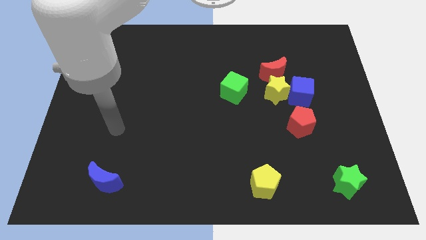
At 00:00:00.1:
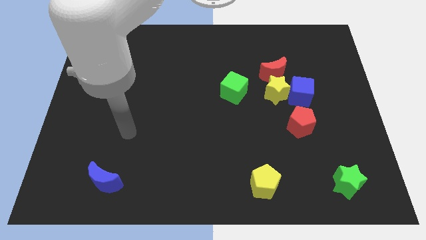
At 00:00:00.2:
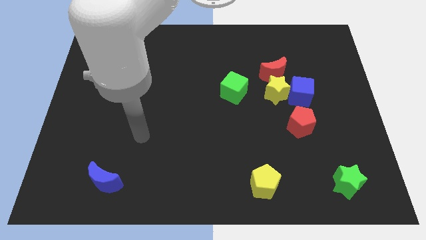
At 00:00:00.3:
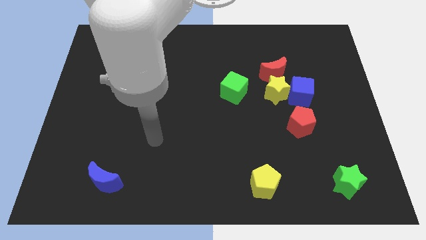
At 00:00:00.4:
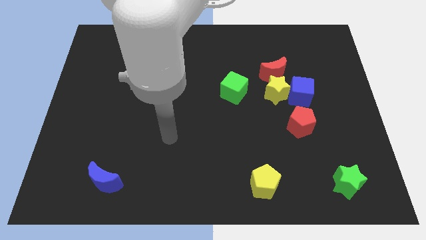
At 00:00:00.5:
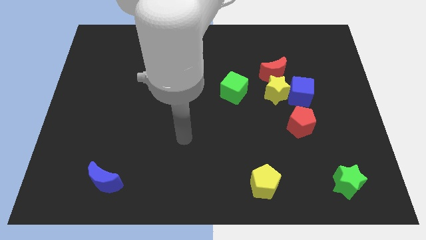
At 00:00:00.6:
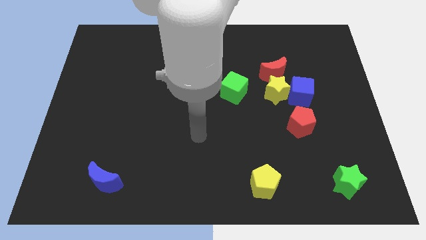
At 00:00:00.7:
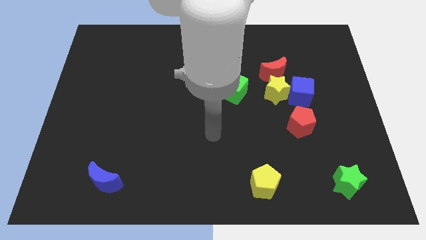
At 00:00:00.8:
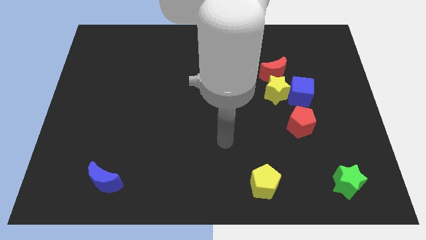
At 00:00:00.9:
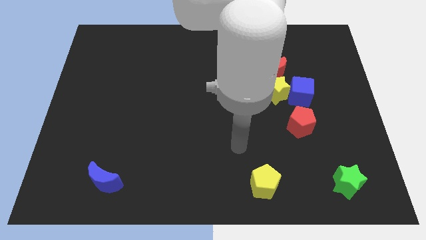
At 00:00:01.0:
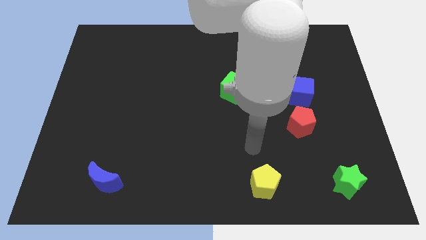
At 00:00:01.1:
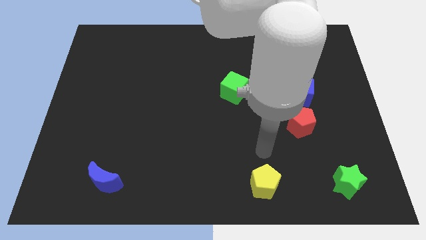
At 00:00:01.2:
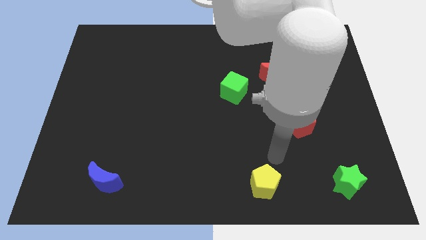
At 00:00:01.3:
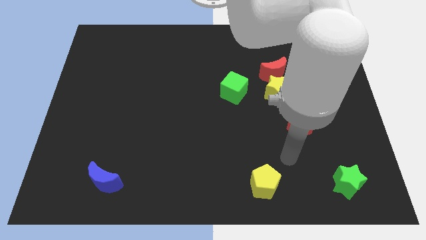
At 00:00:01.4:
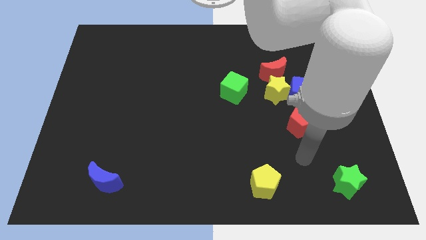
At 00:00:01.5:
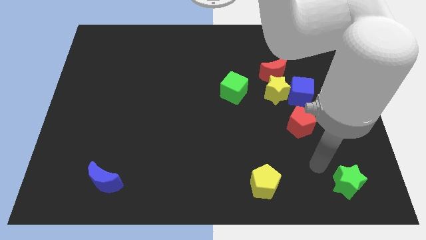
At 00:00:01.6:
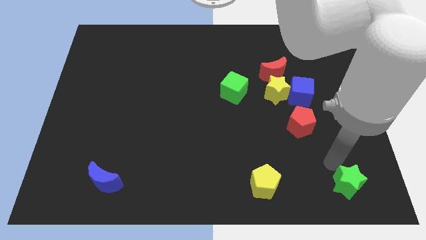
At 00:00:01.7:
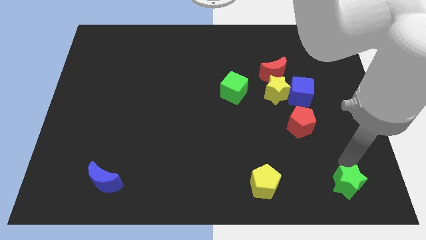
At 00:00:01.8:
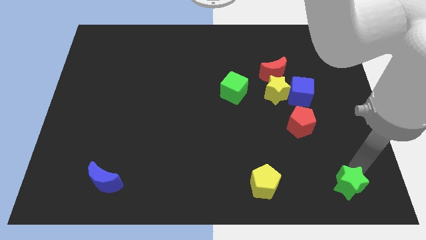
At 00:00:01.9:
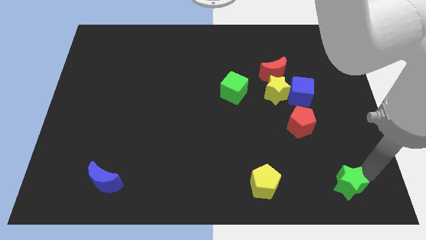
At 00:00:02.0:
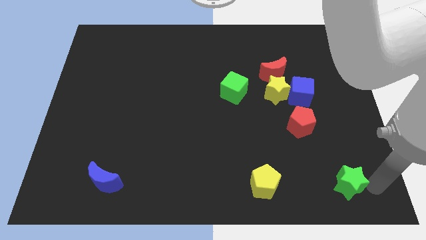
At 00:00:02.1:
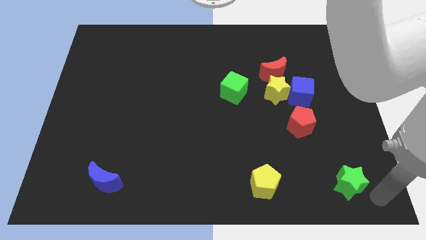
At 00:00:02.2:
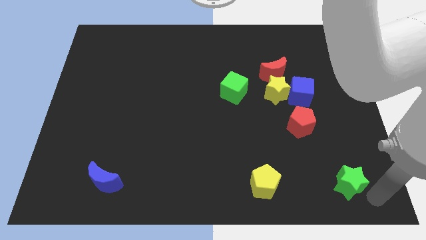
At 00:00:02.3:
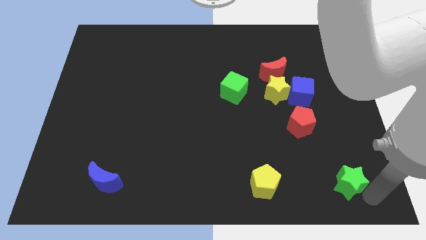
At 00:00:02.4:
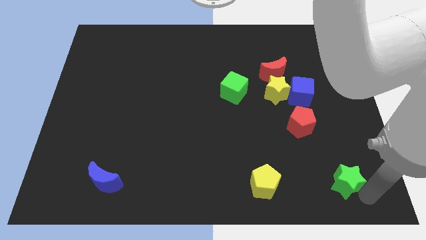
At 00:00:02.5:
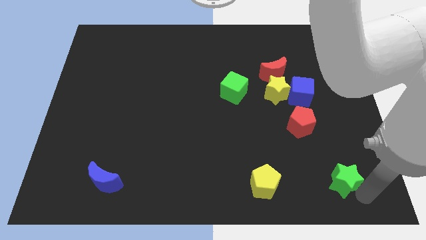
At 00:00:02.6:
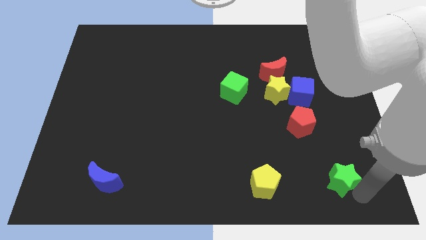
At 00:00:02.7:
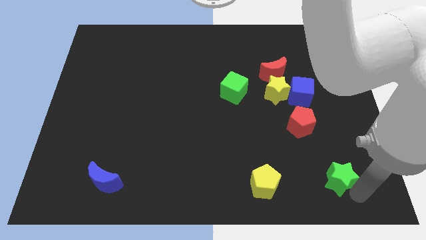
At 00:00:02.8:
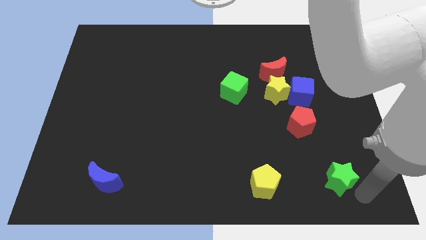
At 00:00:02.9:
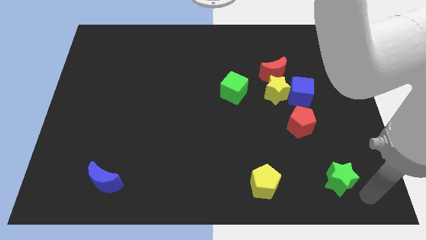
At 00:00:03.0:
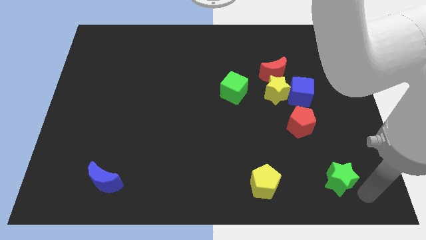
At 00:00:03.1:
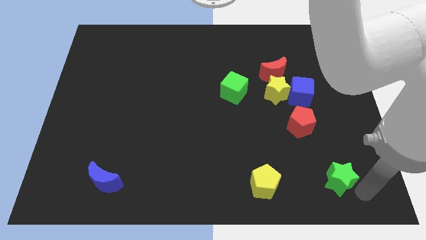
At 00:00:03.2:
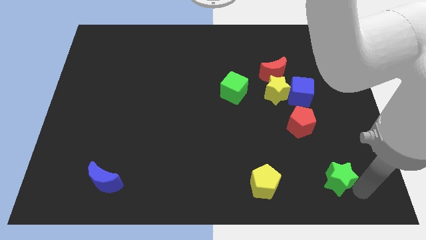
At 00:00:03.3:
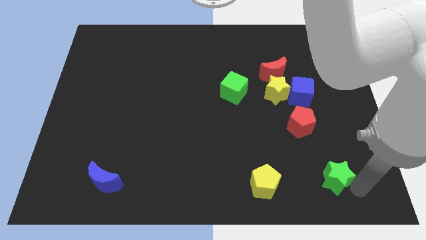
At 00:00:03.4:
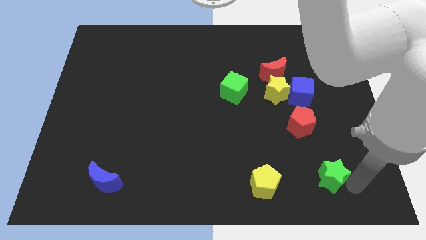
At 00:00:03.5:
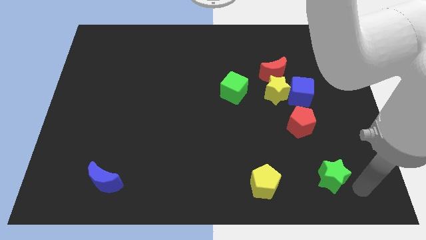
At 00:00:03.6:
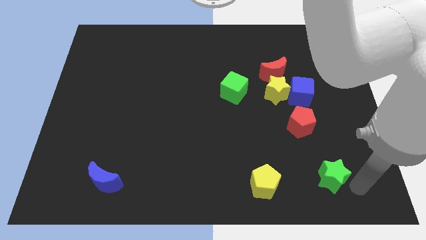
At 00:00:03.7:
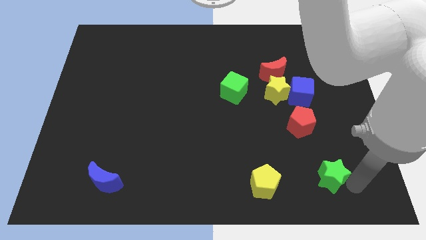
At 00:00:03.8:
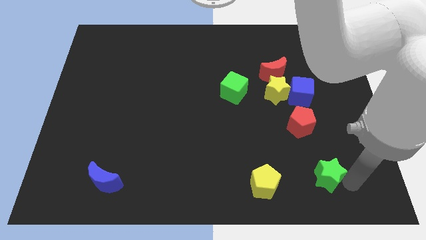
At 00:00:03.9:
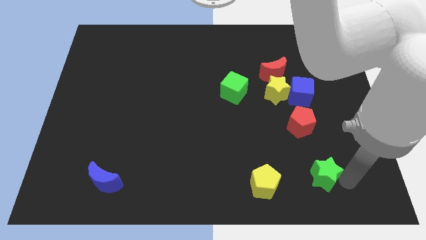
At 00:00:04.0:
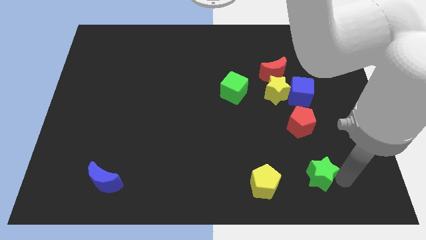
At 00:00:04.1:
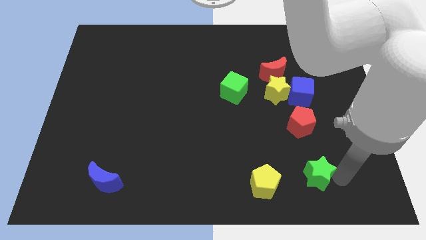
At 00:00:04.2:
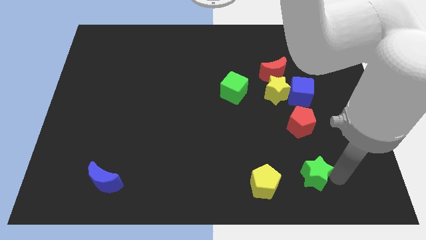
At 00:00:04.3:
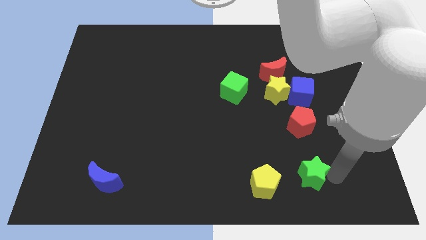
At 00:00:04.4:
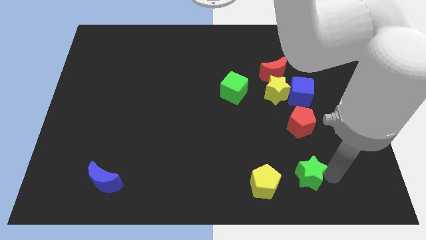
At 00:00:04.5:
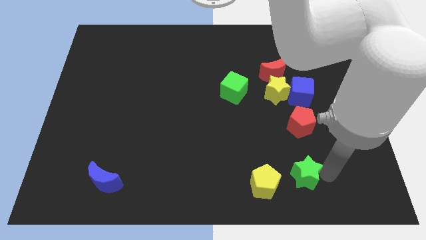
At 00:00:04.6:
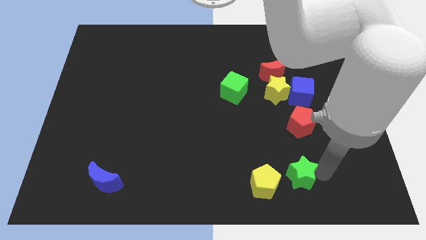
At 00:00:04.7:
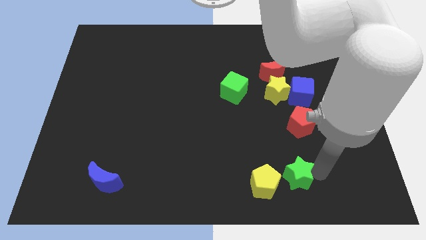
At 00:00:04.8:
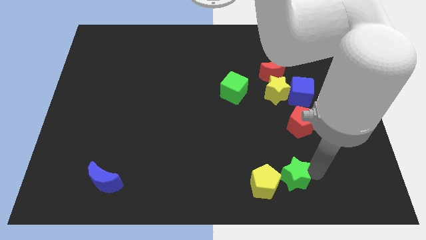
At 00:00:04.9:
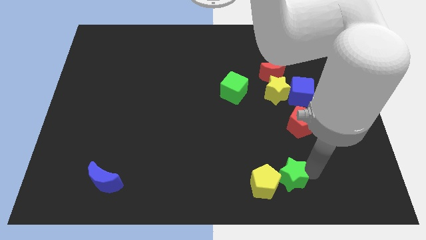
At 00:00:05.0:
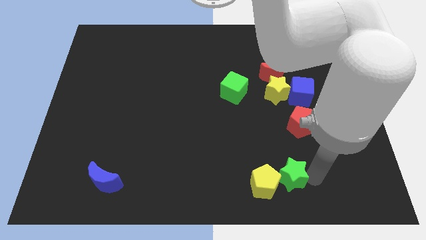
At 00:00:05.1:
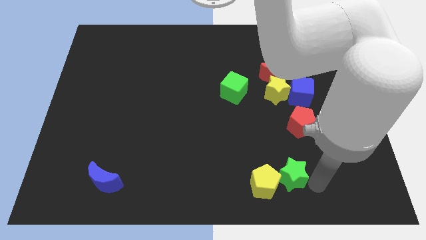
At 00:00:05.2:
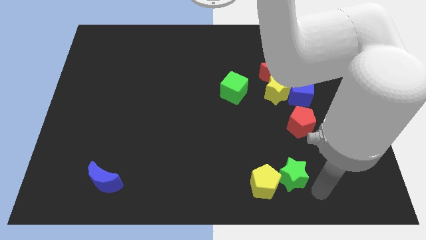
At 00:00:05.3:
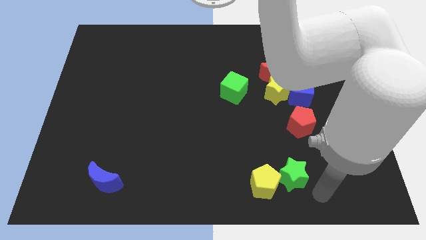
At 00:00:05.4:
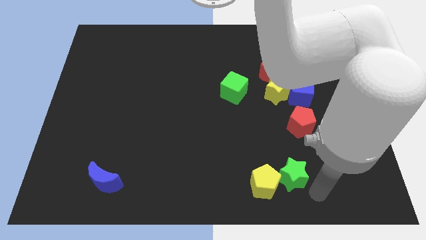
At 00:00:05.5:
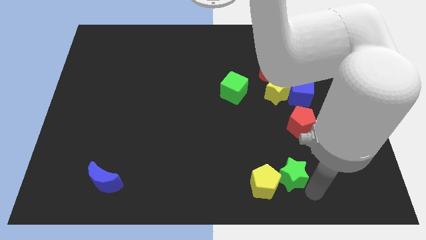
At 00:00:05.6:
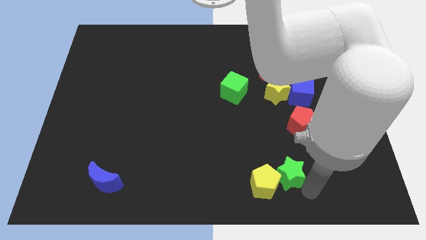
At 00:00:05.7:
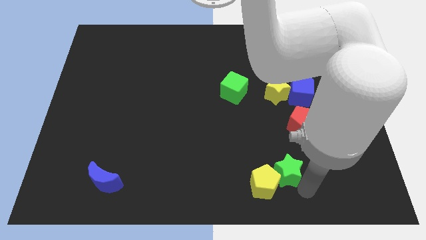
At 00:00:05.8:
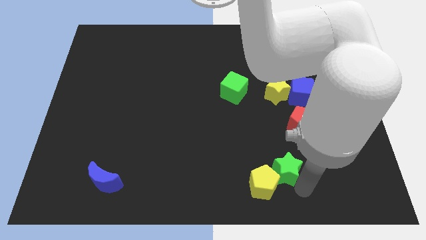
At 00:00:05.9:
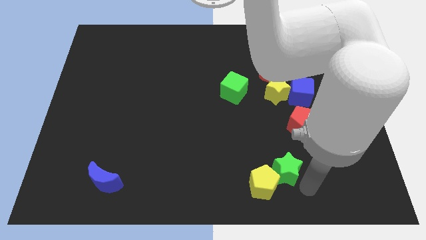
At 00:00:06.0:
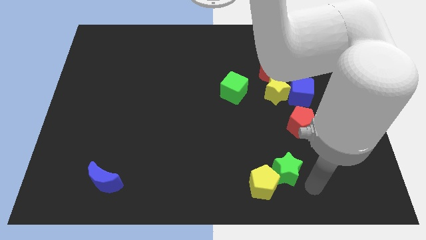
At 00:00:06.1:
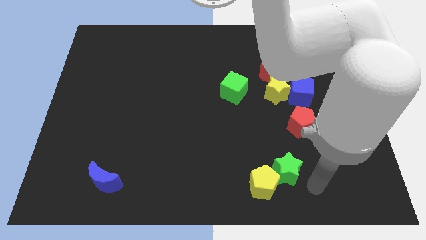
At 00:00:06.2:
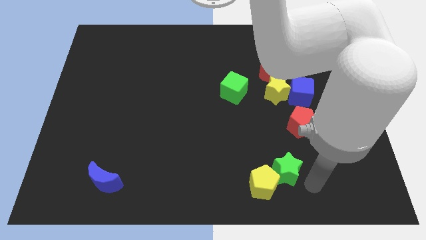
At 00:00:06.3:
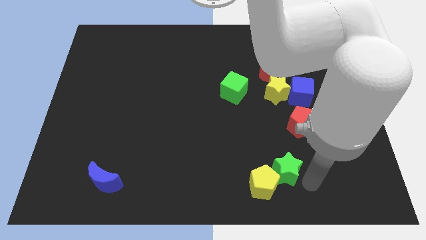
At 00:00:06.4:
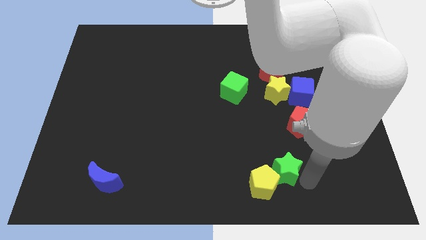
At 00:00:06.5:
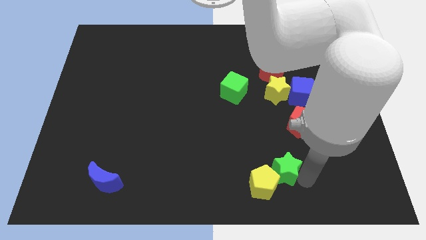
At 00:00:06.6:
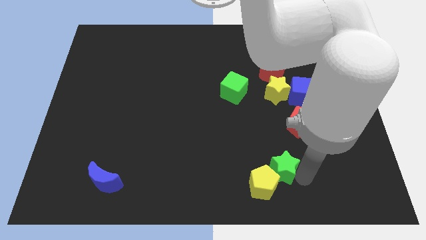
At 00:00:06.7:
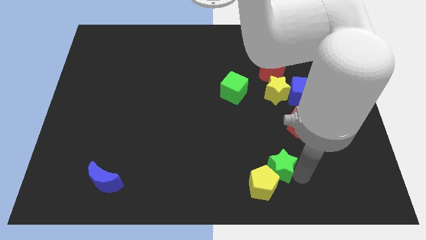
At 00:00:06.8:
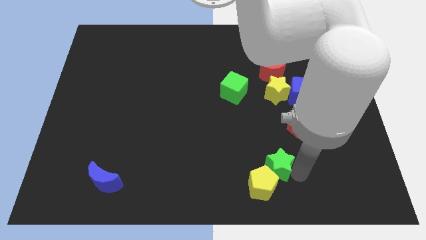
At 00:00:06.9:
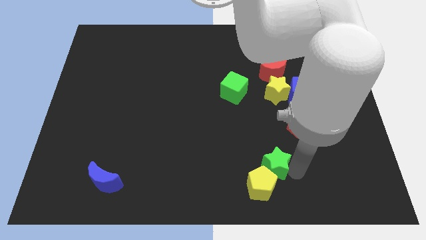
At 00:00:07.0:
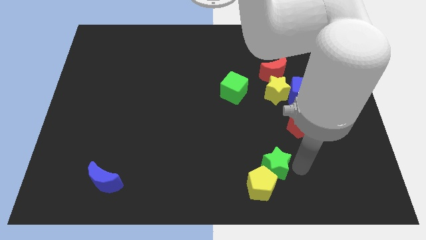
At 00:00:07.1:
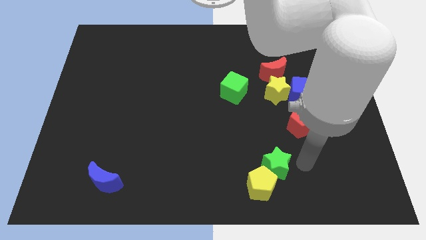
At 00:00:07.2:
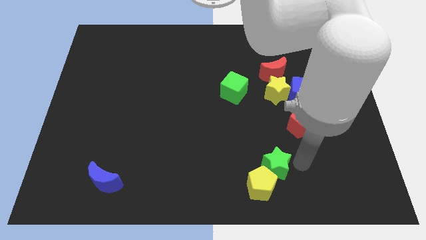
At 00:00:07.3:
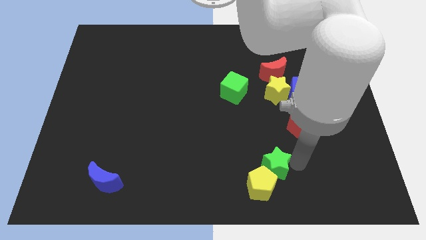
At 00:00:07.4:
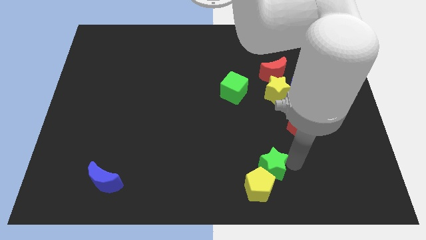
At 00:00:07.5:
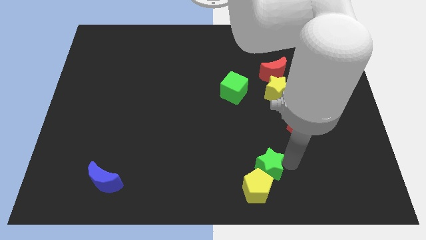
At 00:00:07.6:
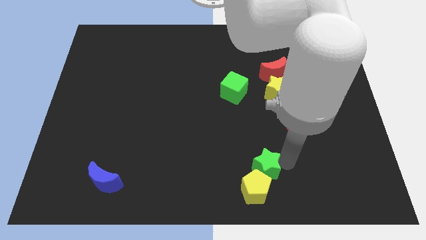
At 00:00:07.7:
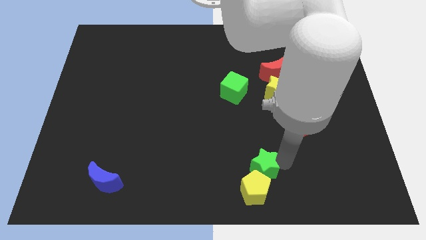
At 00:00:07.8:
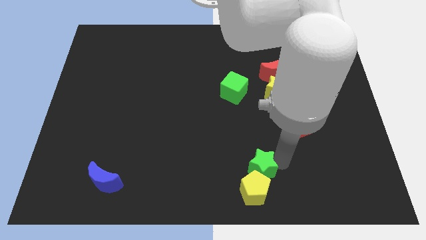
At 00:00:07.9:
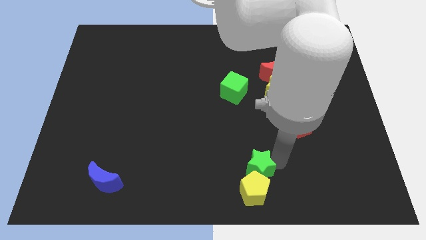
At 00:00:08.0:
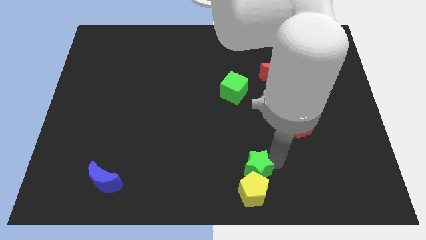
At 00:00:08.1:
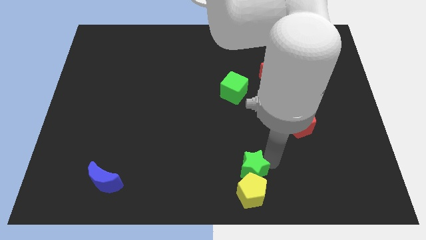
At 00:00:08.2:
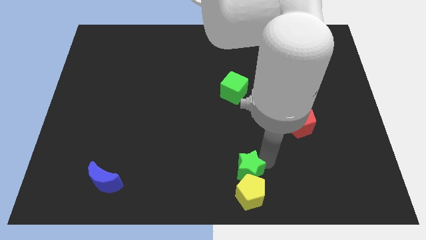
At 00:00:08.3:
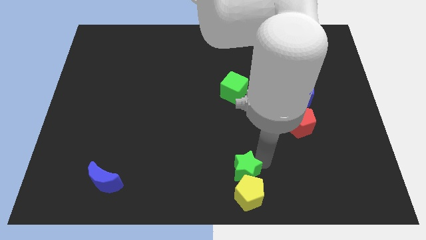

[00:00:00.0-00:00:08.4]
slide the green star to the left
